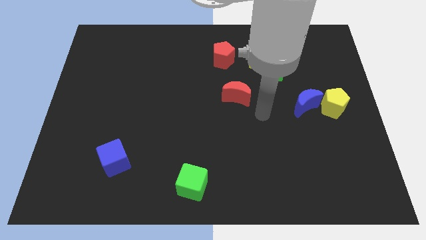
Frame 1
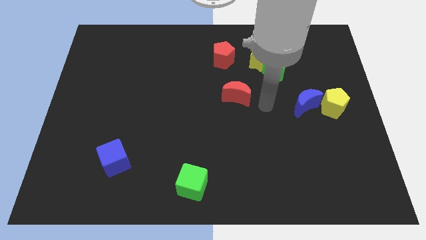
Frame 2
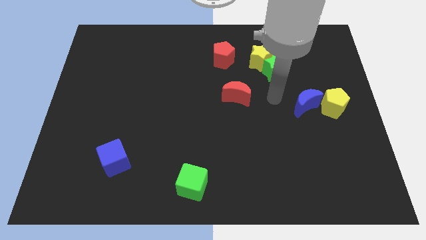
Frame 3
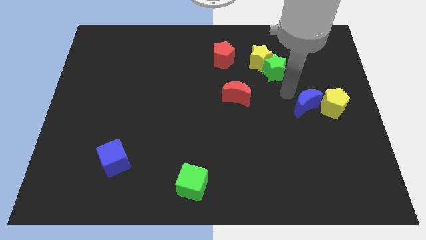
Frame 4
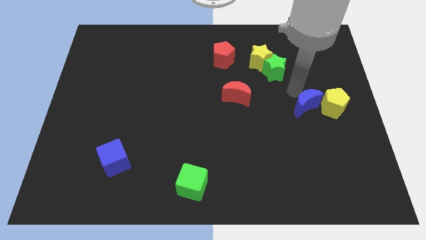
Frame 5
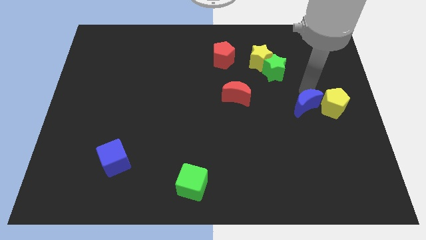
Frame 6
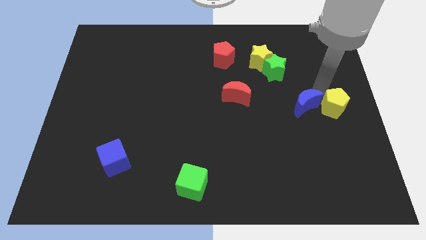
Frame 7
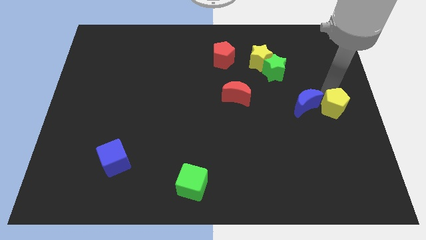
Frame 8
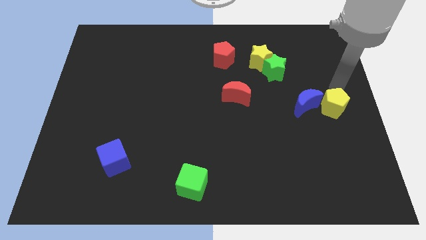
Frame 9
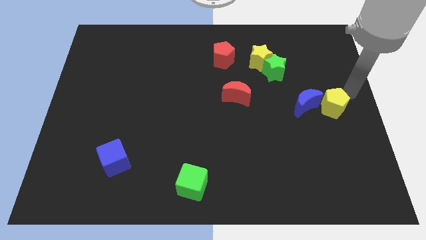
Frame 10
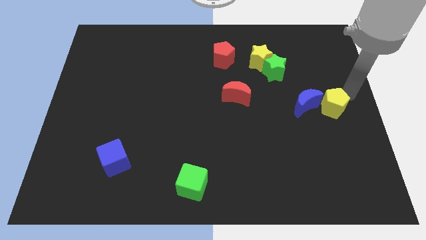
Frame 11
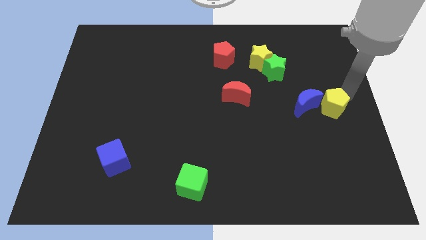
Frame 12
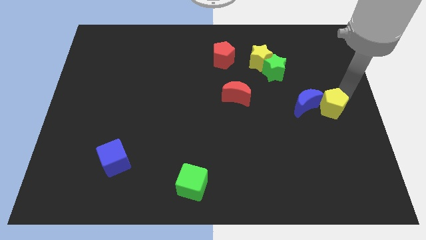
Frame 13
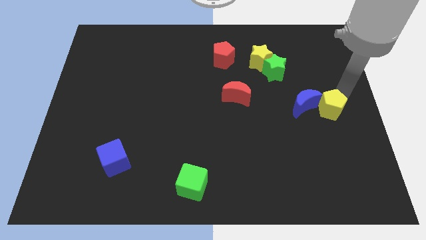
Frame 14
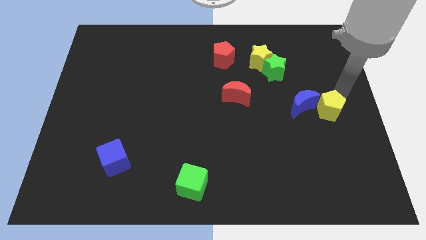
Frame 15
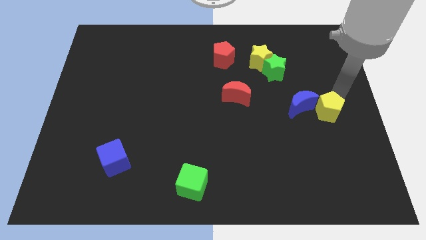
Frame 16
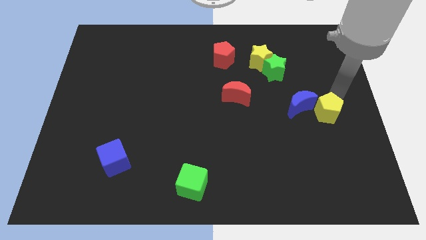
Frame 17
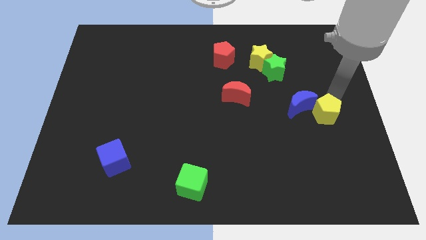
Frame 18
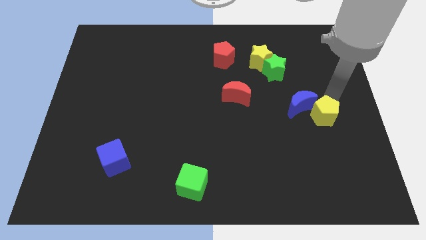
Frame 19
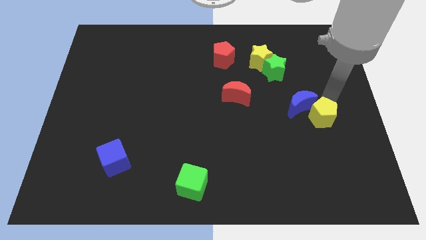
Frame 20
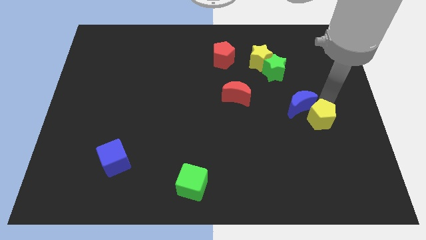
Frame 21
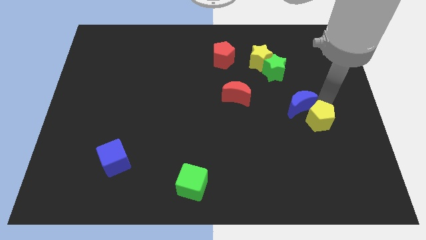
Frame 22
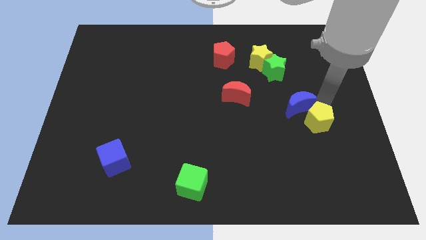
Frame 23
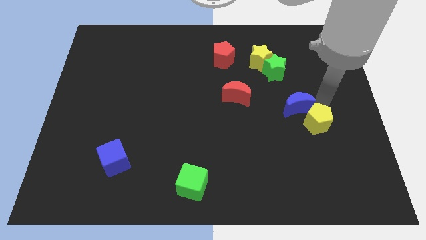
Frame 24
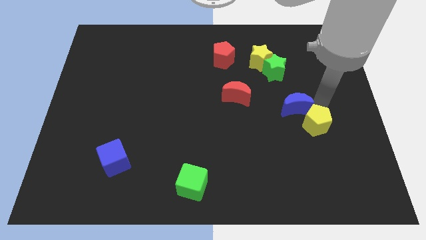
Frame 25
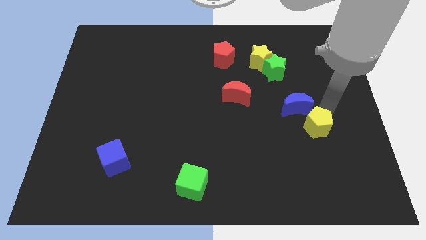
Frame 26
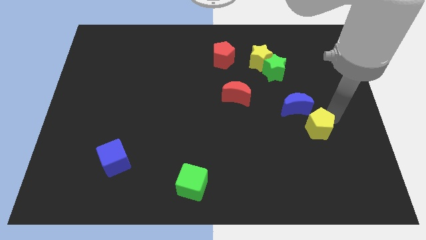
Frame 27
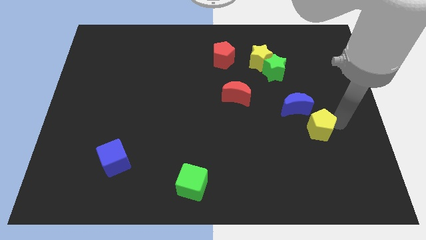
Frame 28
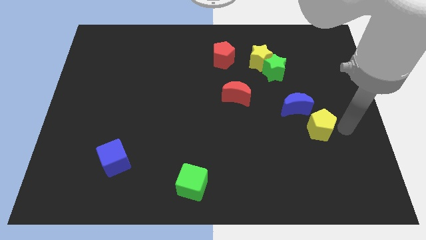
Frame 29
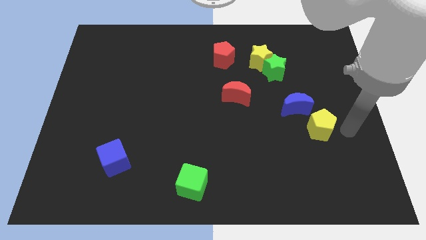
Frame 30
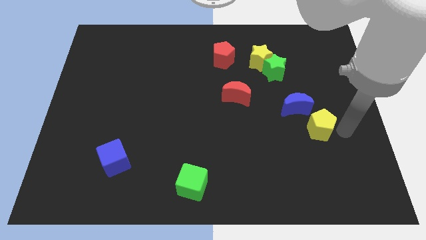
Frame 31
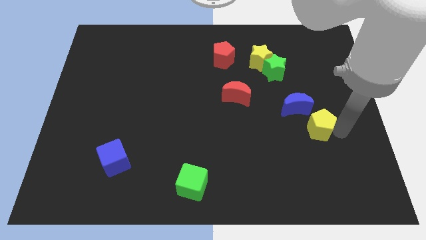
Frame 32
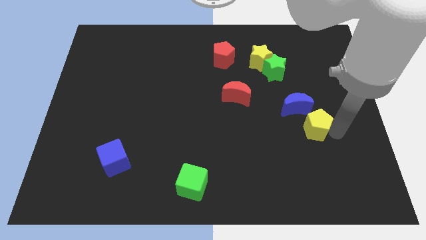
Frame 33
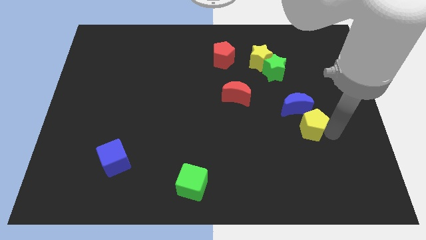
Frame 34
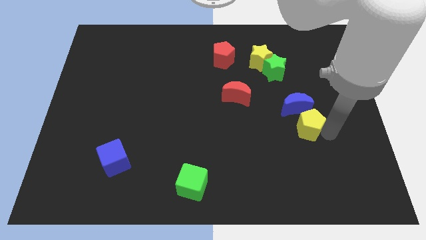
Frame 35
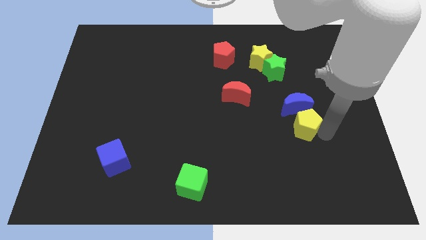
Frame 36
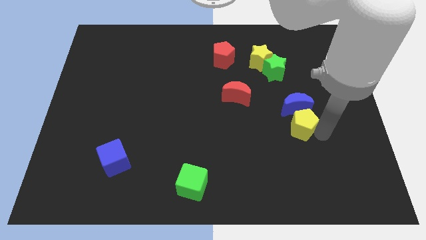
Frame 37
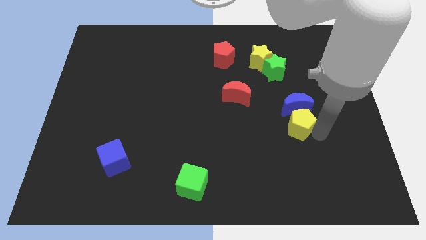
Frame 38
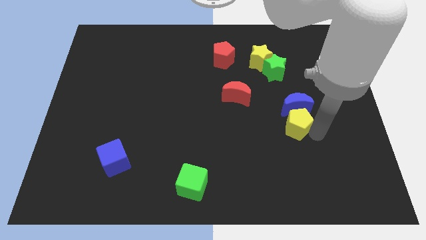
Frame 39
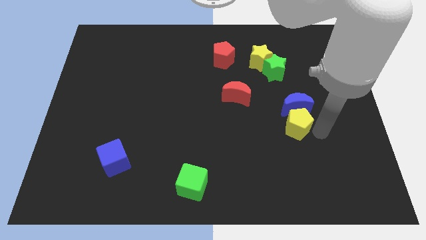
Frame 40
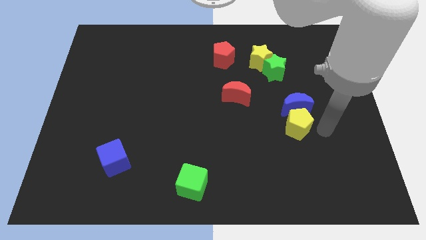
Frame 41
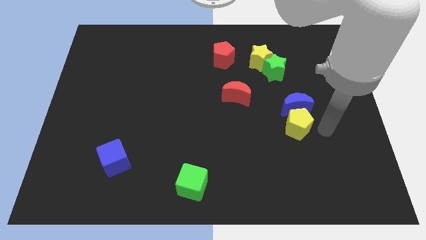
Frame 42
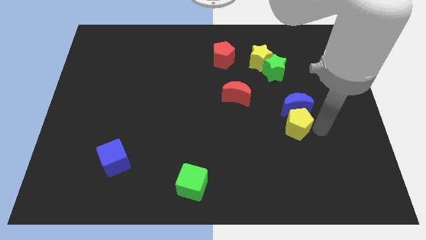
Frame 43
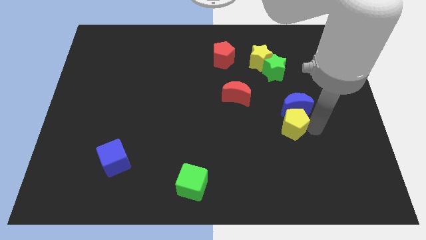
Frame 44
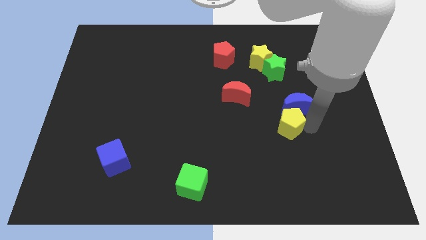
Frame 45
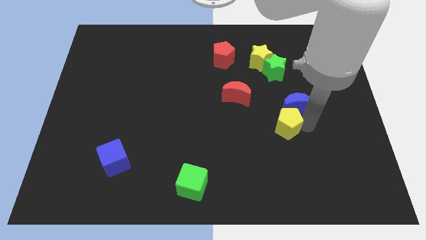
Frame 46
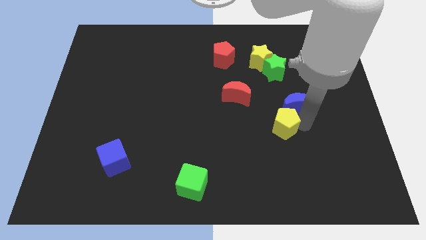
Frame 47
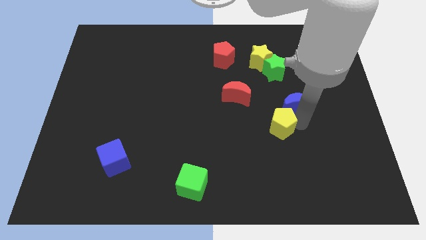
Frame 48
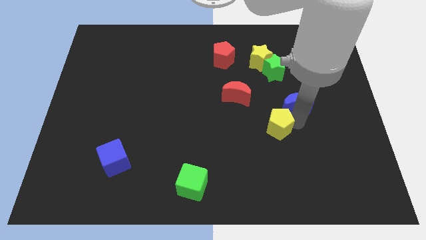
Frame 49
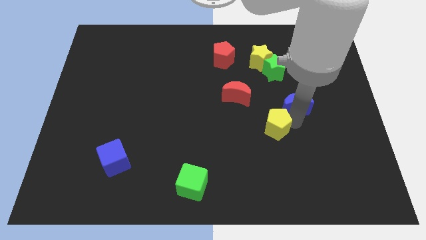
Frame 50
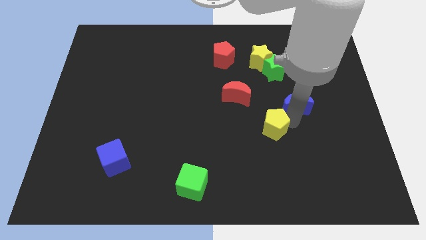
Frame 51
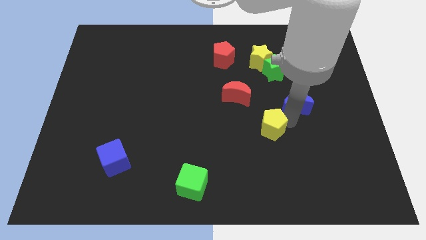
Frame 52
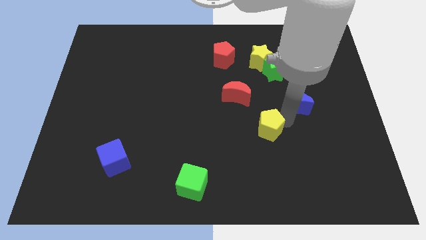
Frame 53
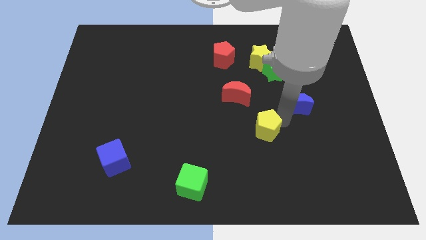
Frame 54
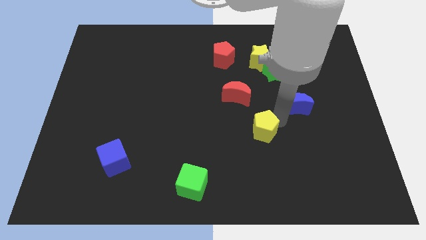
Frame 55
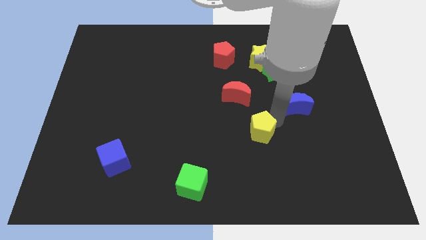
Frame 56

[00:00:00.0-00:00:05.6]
move the yellow pentagon below the red moon
